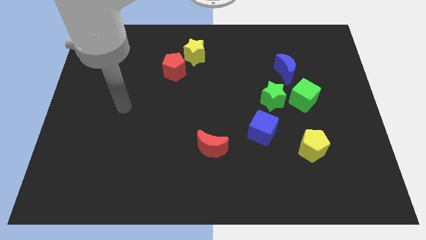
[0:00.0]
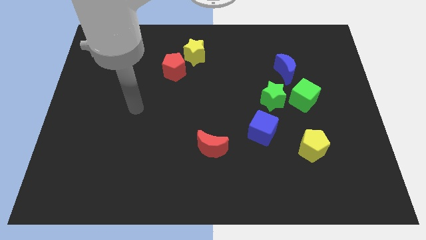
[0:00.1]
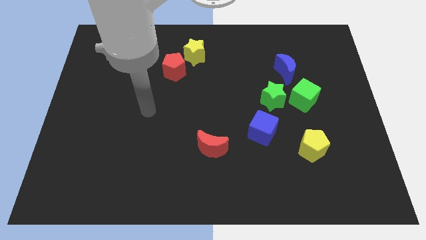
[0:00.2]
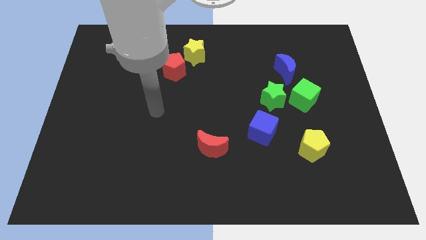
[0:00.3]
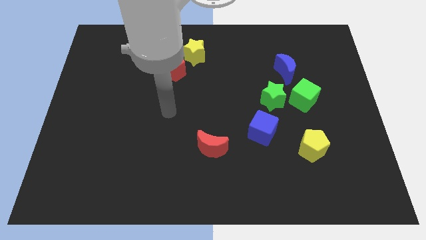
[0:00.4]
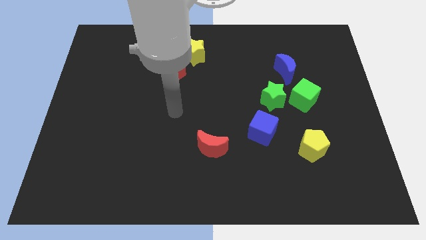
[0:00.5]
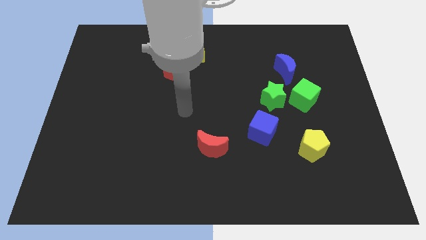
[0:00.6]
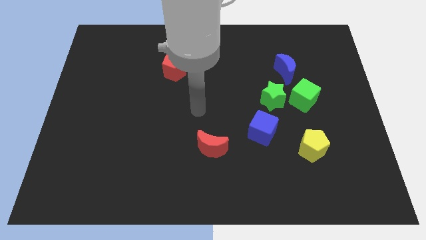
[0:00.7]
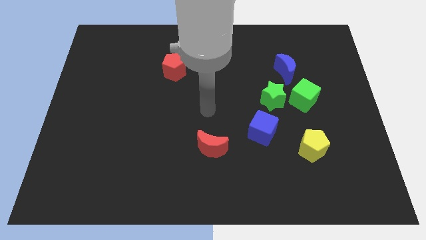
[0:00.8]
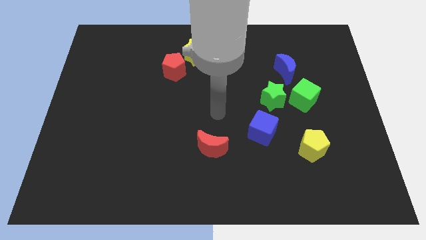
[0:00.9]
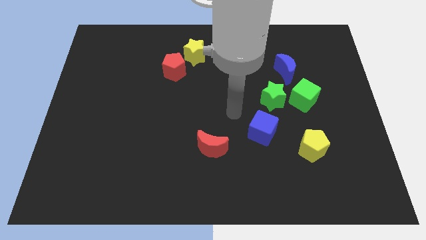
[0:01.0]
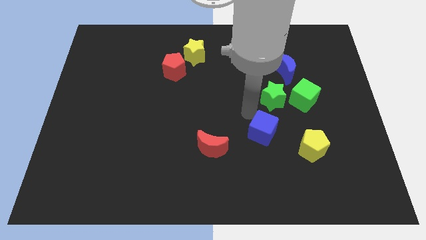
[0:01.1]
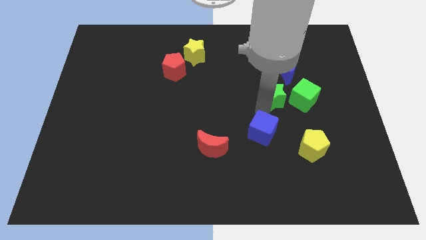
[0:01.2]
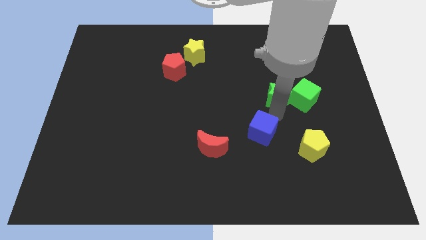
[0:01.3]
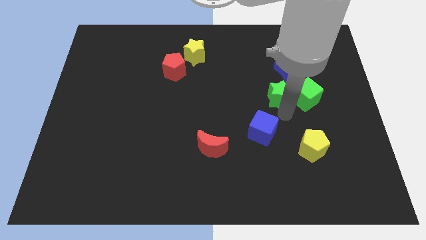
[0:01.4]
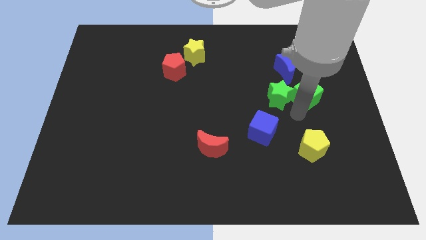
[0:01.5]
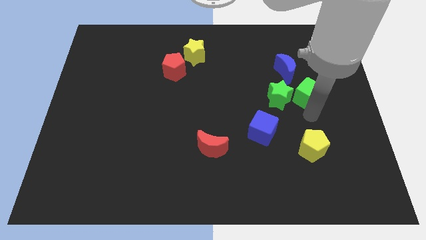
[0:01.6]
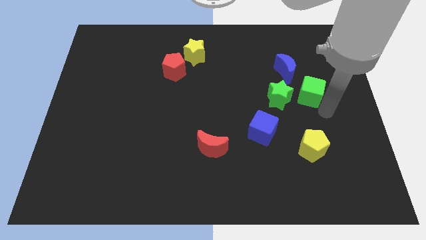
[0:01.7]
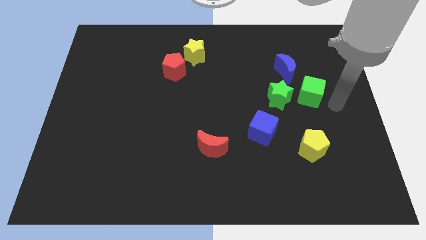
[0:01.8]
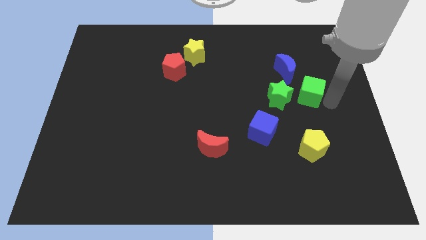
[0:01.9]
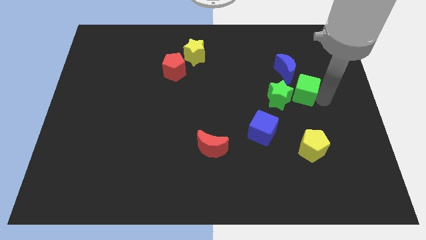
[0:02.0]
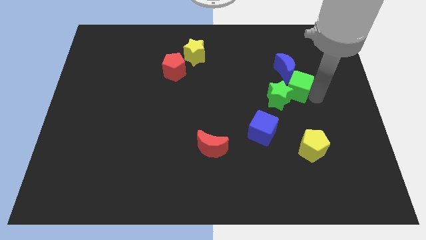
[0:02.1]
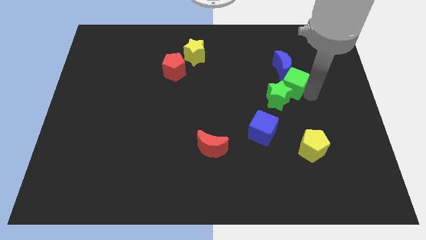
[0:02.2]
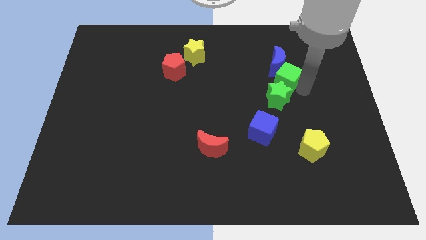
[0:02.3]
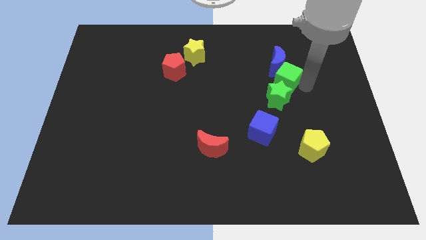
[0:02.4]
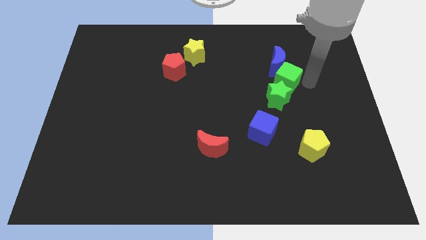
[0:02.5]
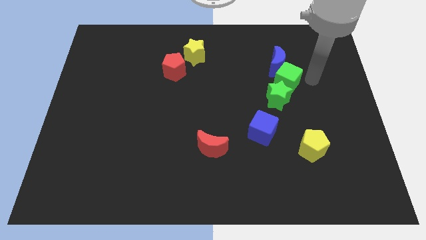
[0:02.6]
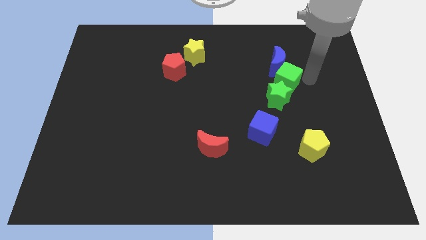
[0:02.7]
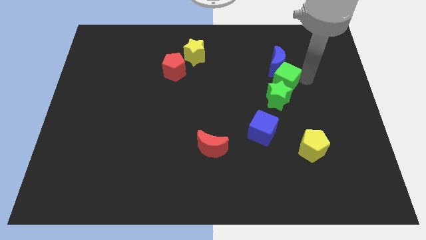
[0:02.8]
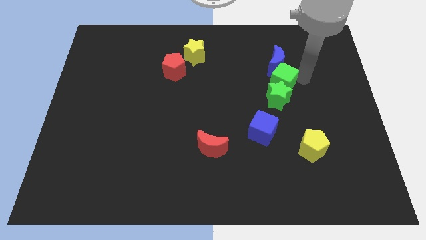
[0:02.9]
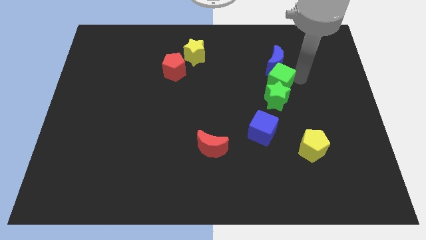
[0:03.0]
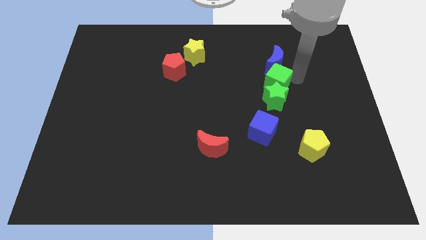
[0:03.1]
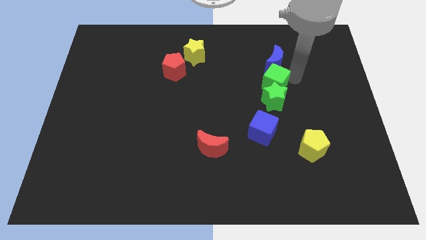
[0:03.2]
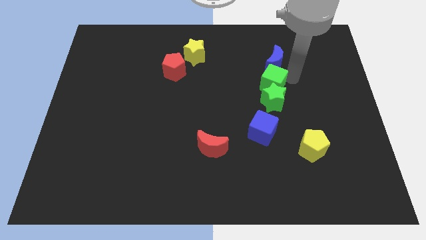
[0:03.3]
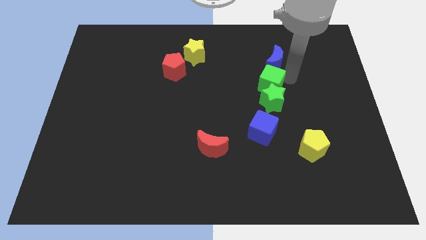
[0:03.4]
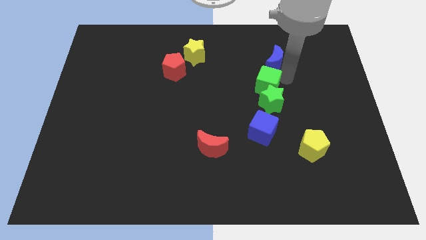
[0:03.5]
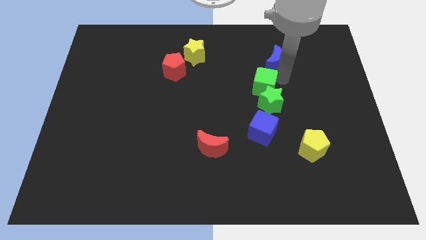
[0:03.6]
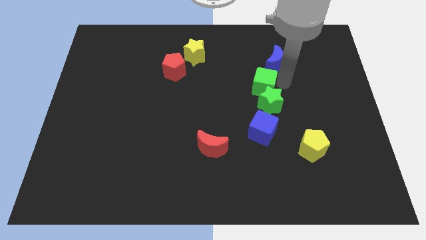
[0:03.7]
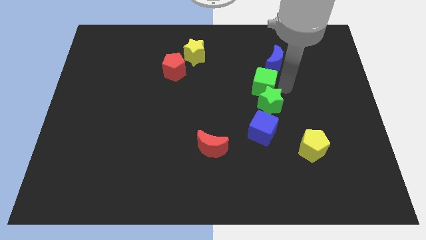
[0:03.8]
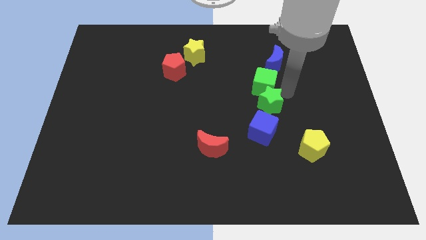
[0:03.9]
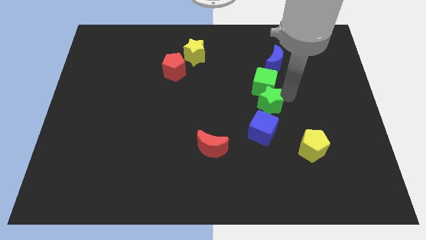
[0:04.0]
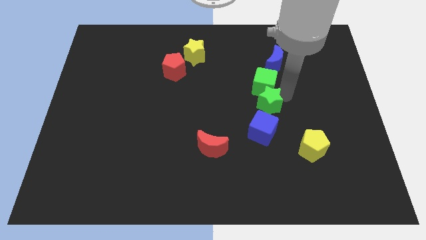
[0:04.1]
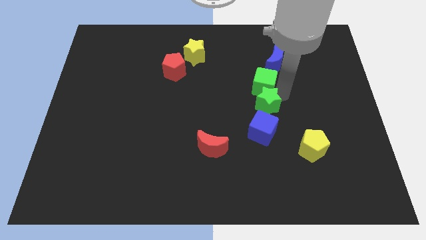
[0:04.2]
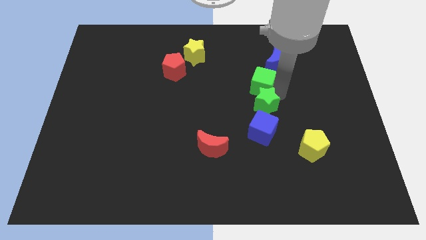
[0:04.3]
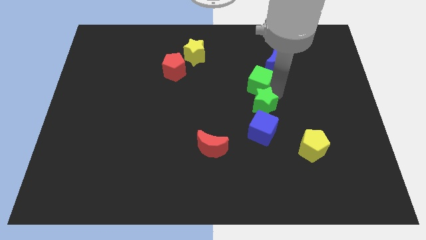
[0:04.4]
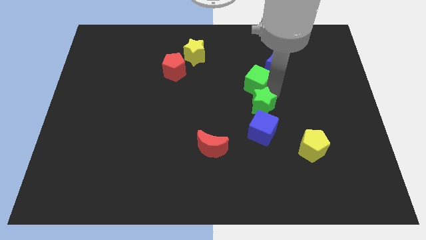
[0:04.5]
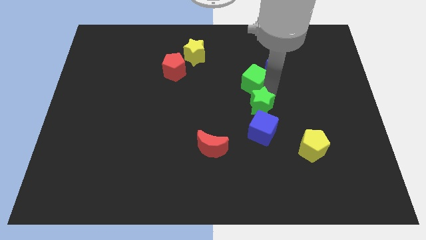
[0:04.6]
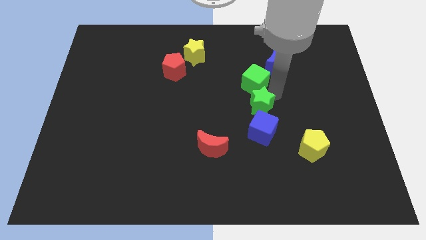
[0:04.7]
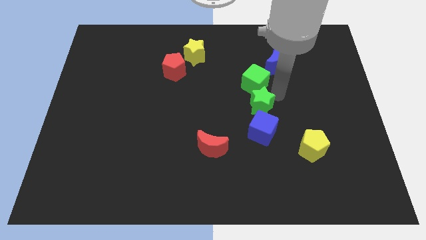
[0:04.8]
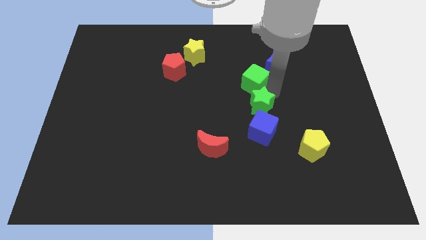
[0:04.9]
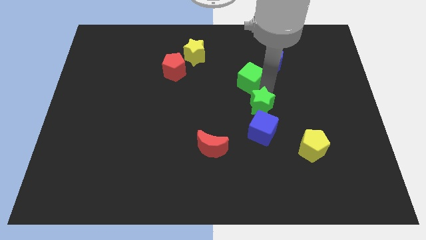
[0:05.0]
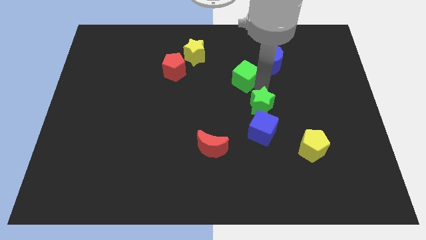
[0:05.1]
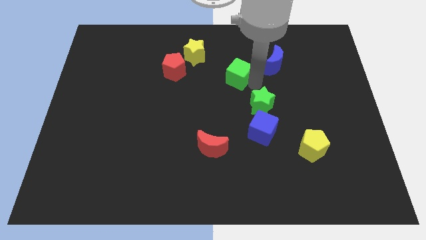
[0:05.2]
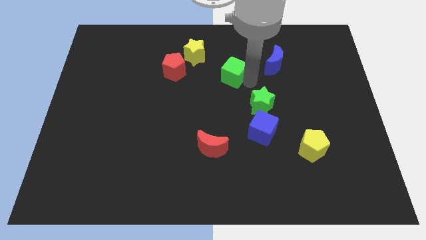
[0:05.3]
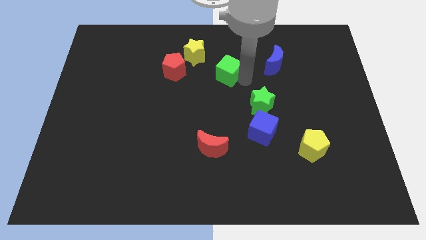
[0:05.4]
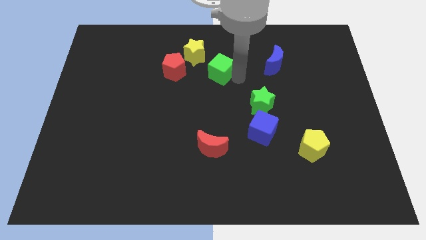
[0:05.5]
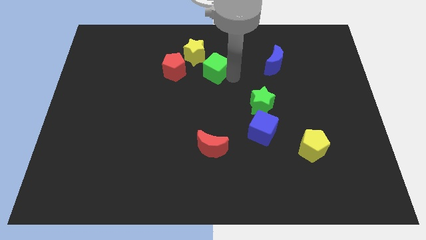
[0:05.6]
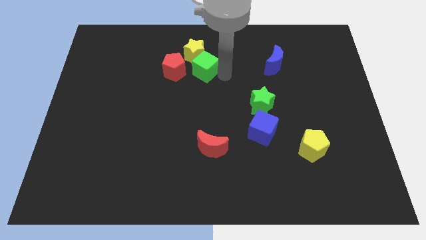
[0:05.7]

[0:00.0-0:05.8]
move the green cube next to the yellow star

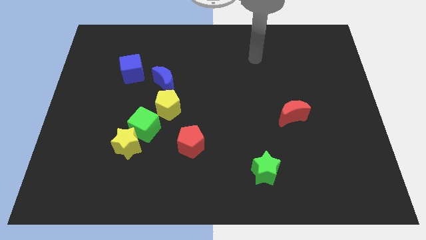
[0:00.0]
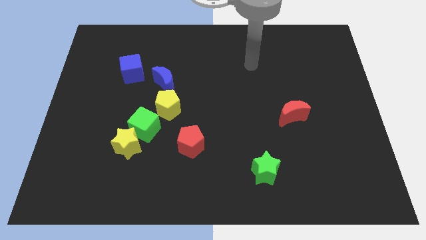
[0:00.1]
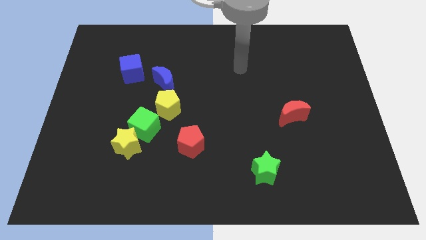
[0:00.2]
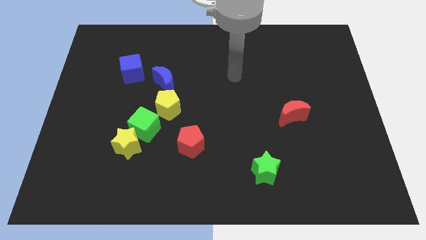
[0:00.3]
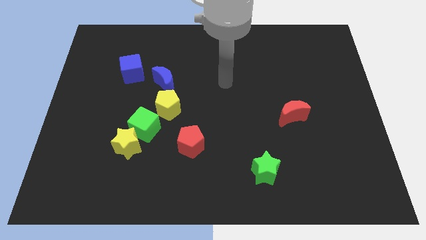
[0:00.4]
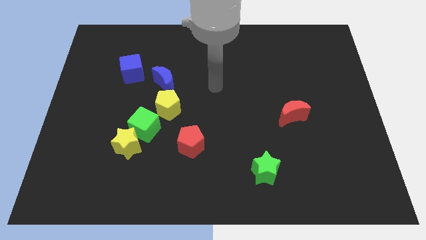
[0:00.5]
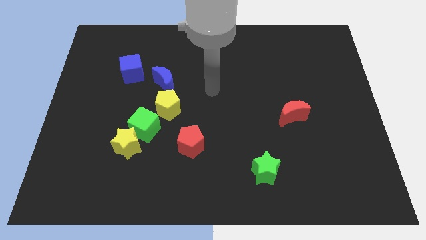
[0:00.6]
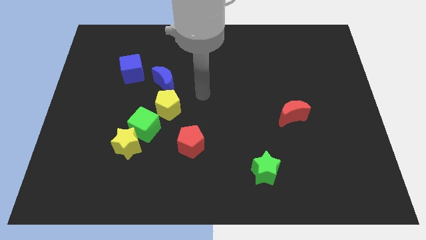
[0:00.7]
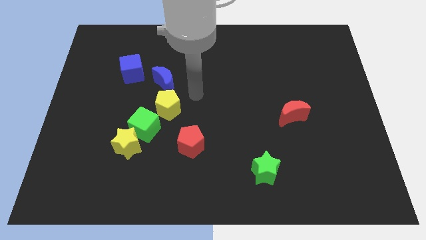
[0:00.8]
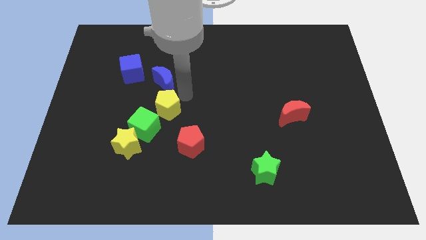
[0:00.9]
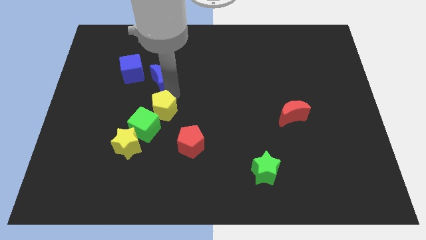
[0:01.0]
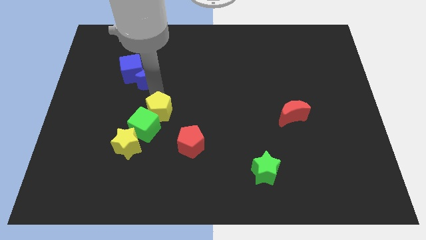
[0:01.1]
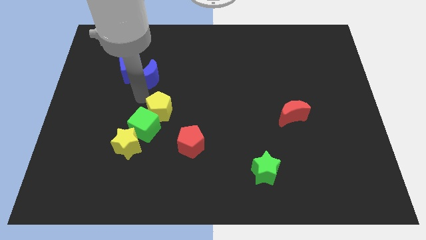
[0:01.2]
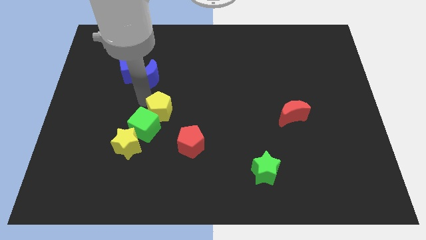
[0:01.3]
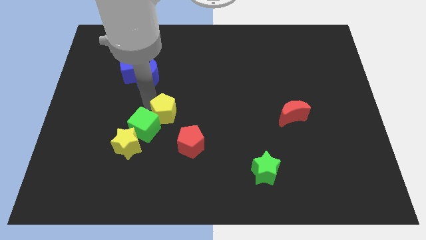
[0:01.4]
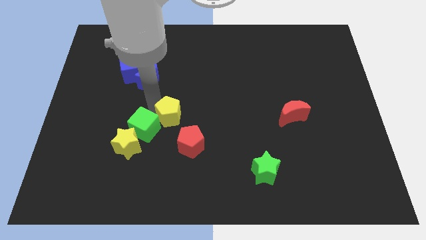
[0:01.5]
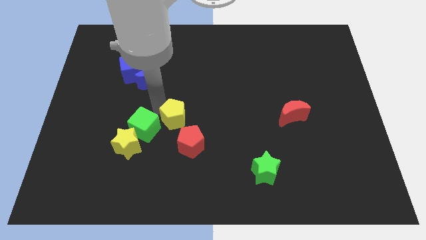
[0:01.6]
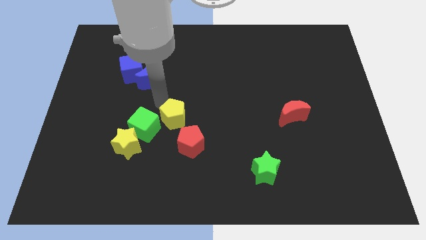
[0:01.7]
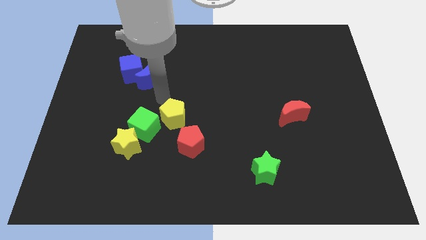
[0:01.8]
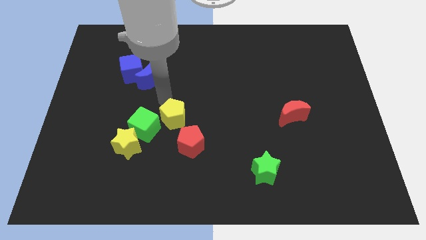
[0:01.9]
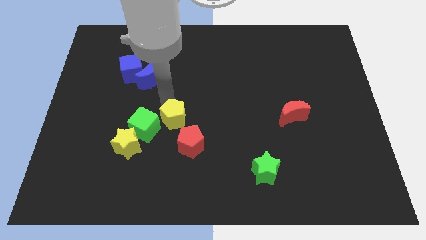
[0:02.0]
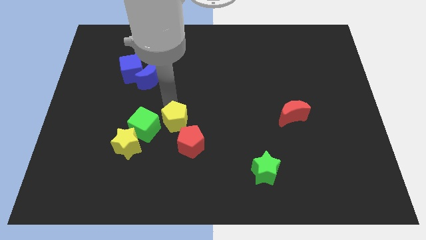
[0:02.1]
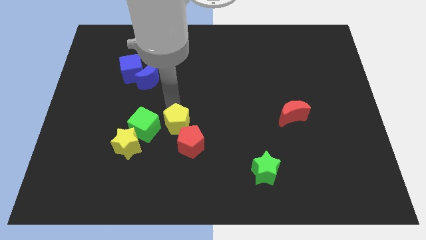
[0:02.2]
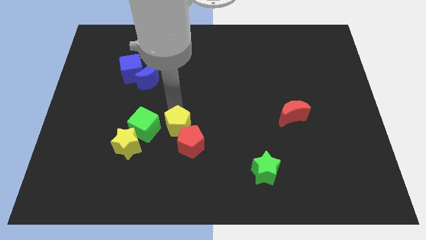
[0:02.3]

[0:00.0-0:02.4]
slide the yellow pentagon towards the red pentagon
